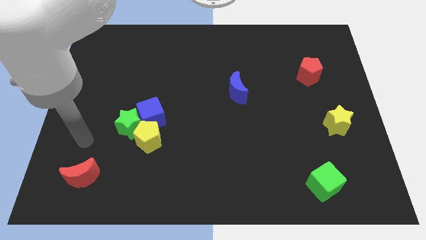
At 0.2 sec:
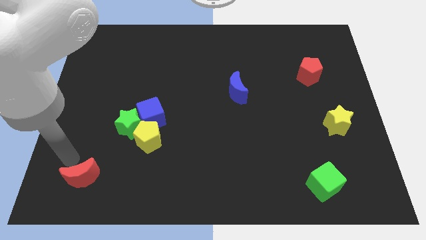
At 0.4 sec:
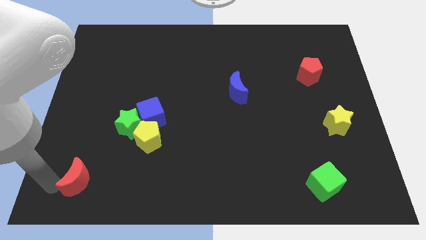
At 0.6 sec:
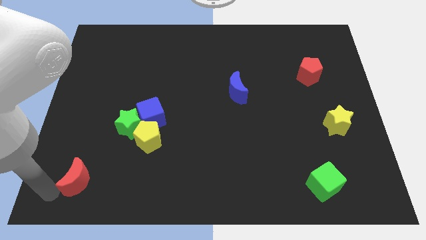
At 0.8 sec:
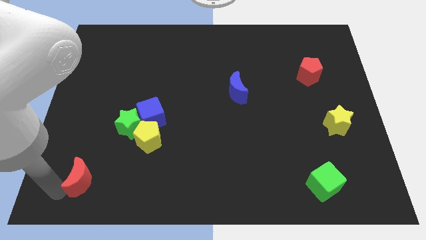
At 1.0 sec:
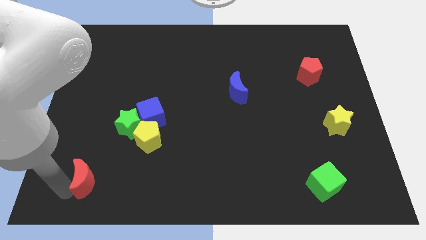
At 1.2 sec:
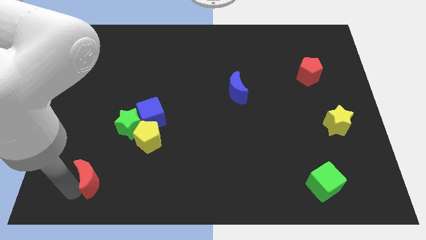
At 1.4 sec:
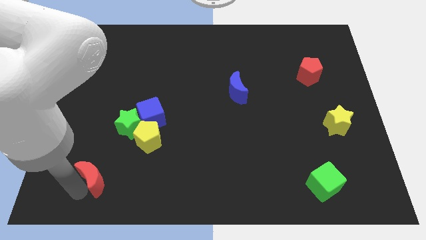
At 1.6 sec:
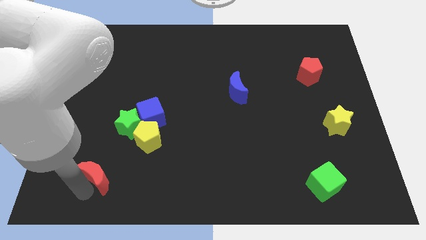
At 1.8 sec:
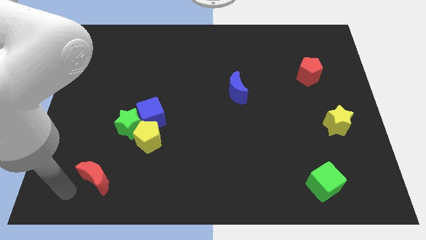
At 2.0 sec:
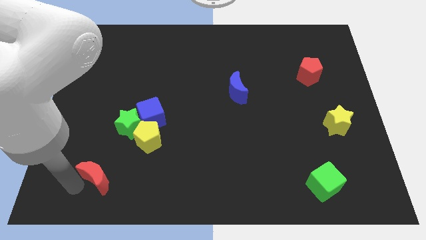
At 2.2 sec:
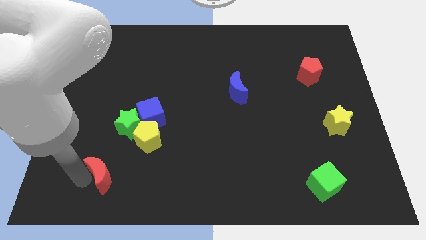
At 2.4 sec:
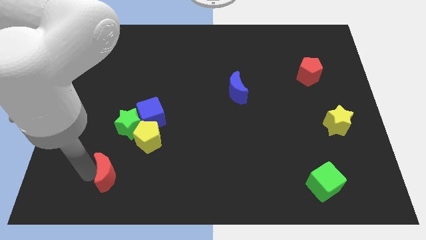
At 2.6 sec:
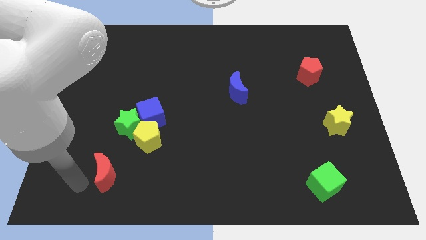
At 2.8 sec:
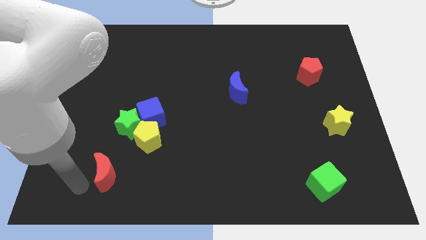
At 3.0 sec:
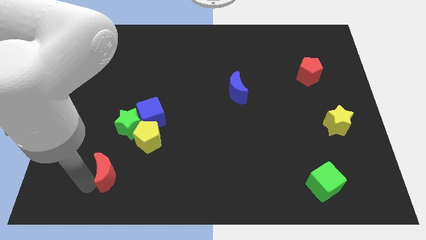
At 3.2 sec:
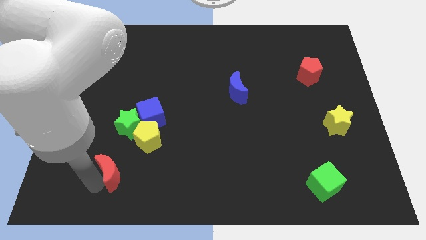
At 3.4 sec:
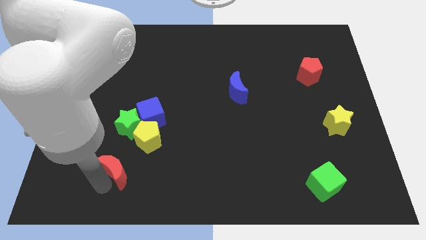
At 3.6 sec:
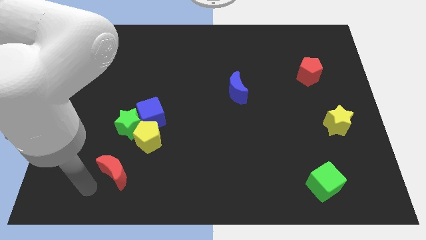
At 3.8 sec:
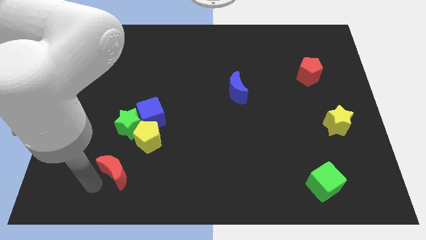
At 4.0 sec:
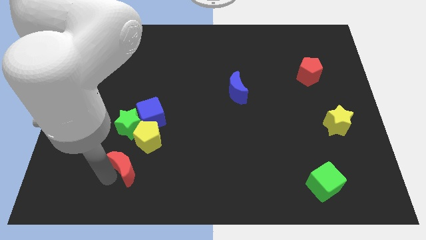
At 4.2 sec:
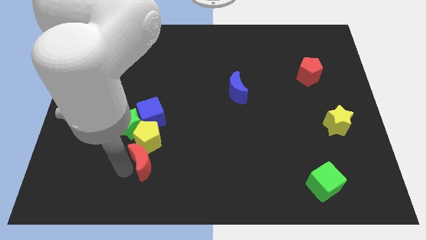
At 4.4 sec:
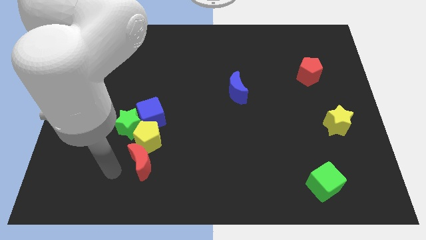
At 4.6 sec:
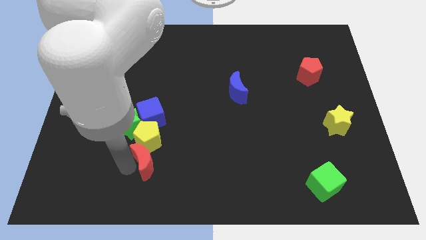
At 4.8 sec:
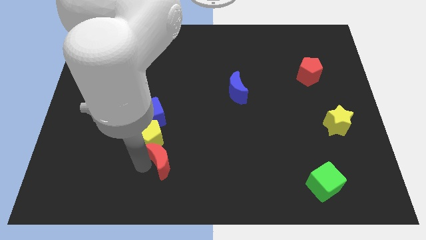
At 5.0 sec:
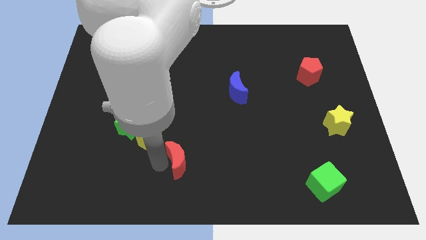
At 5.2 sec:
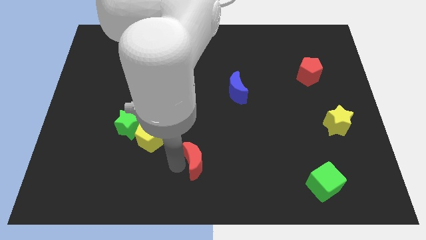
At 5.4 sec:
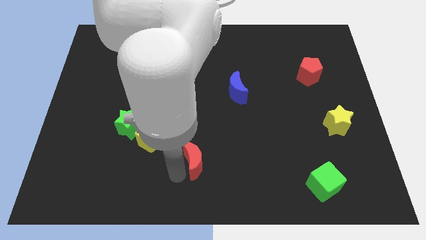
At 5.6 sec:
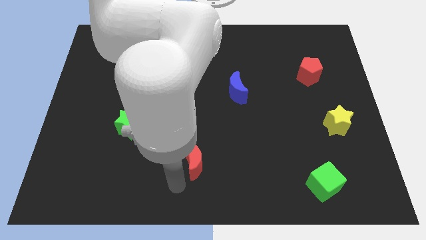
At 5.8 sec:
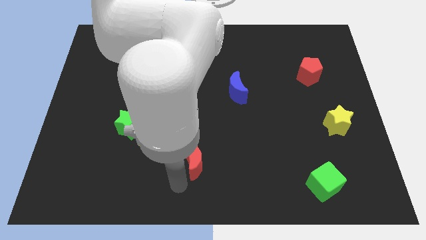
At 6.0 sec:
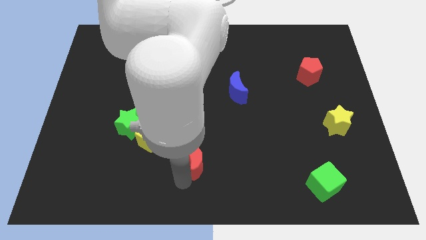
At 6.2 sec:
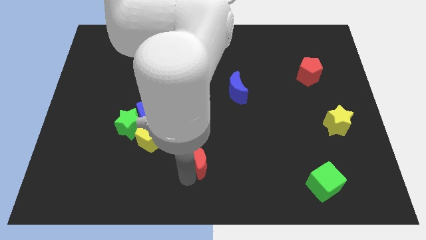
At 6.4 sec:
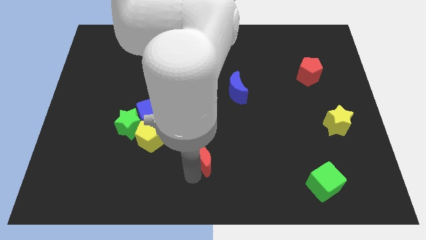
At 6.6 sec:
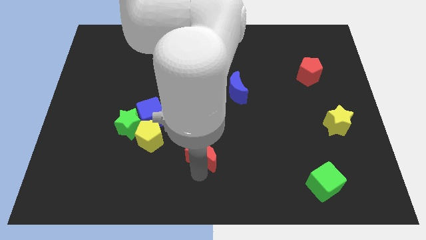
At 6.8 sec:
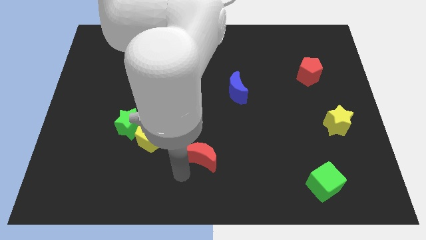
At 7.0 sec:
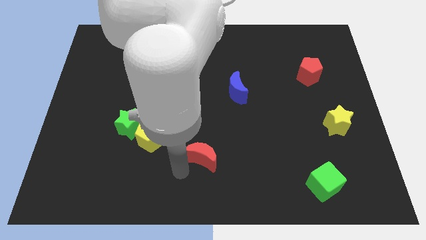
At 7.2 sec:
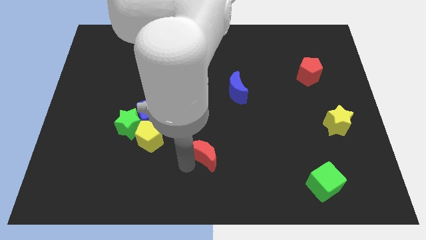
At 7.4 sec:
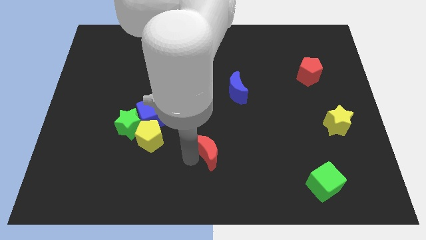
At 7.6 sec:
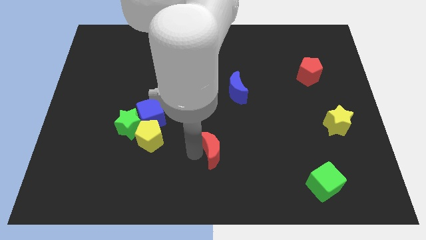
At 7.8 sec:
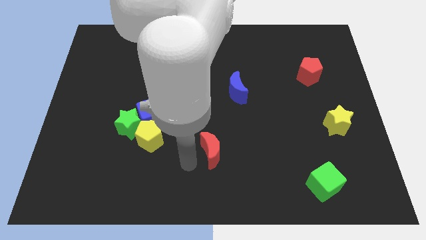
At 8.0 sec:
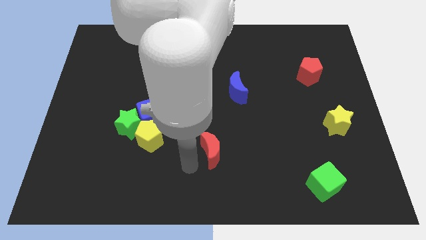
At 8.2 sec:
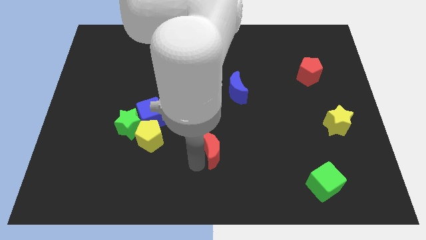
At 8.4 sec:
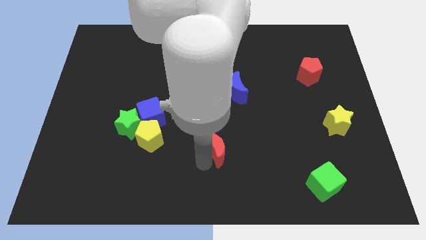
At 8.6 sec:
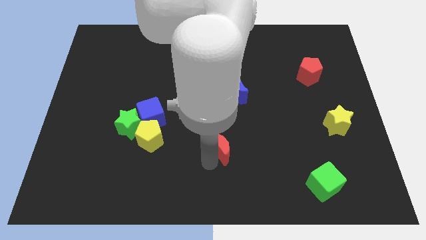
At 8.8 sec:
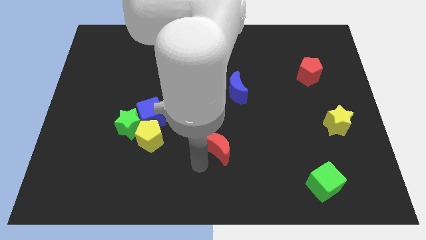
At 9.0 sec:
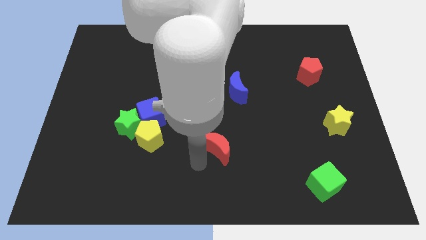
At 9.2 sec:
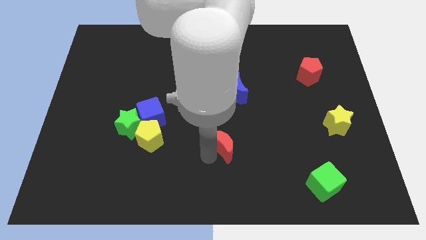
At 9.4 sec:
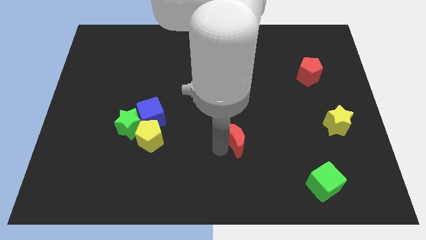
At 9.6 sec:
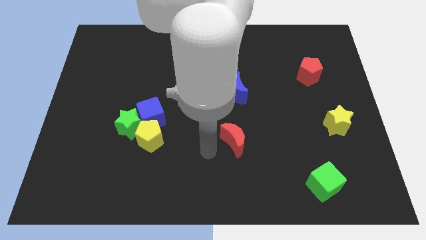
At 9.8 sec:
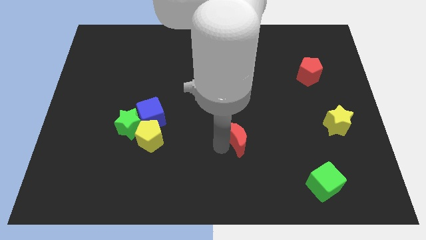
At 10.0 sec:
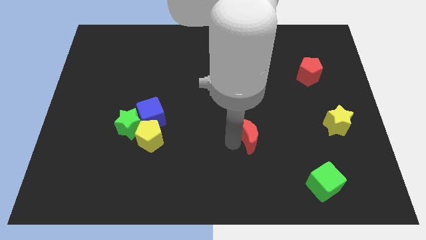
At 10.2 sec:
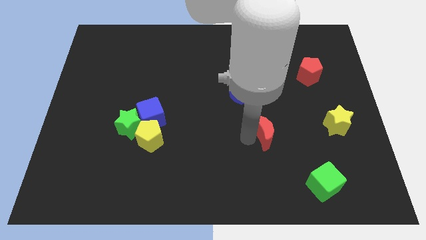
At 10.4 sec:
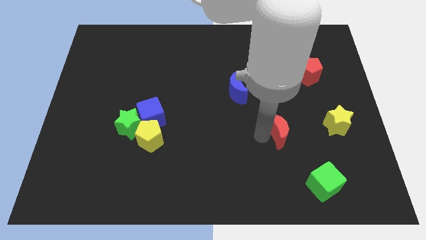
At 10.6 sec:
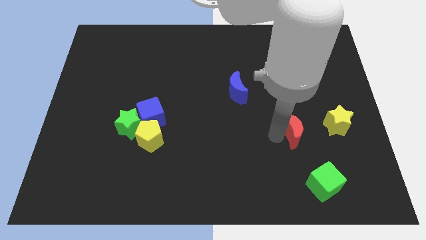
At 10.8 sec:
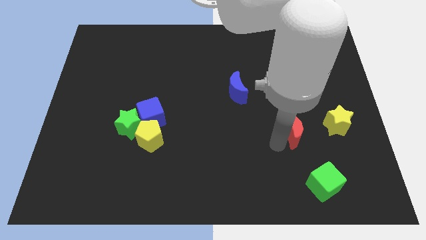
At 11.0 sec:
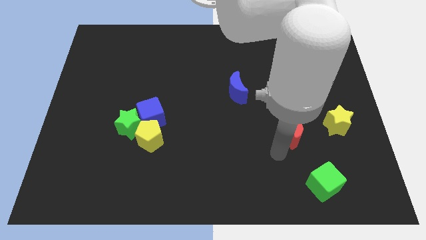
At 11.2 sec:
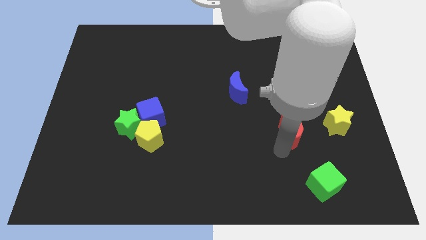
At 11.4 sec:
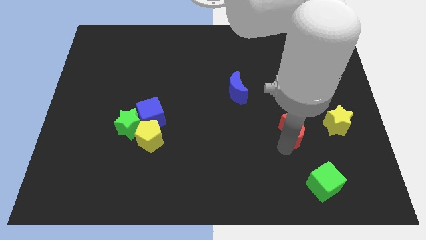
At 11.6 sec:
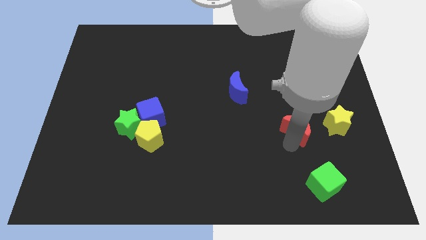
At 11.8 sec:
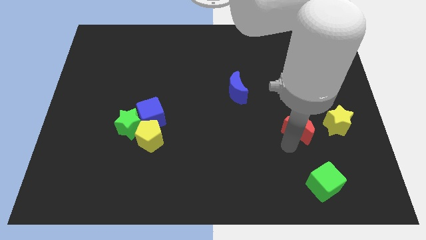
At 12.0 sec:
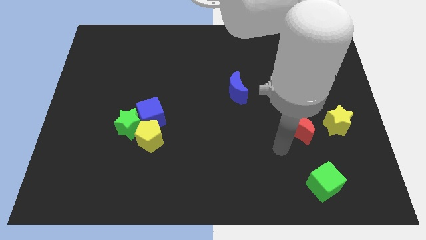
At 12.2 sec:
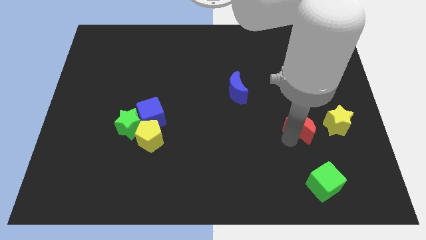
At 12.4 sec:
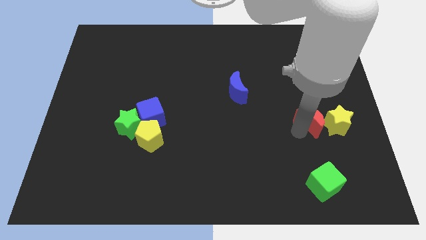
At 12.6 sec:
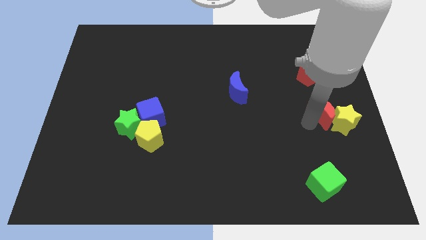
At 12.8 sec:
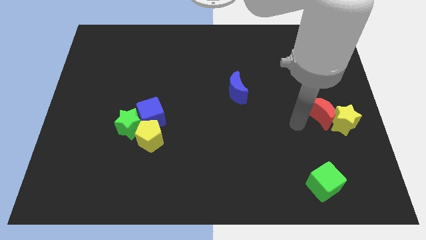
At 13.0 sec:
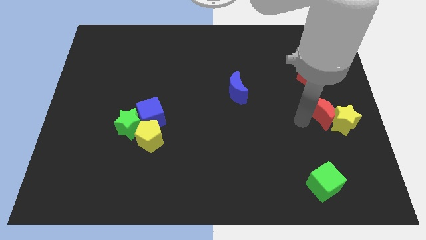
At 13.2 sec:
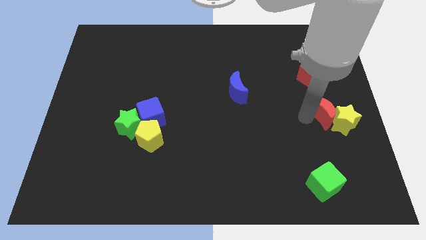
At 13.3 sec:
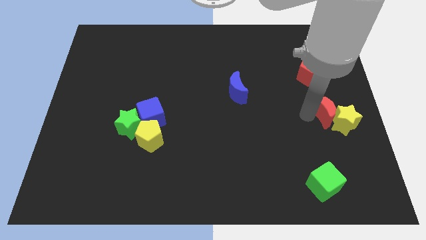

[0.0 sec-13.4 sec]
push the red moon to the right side

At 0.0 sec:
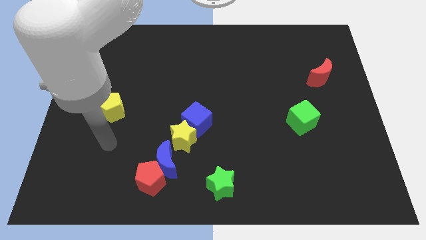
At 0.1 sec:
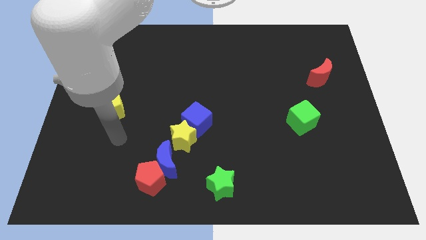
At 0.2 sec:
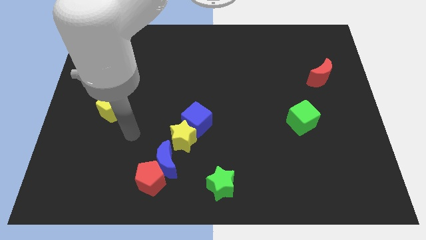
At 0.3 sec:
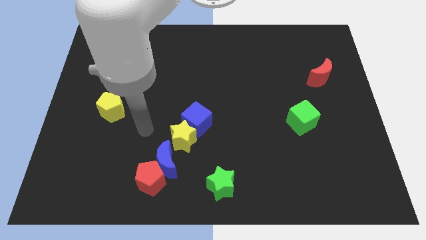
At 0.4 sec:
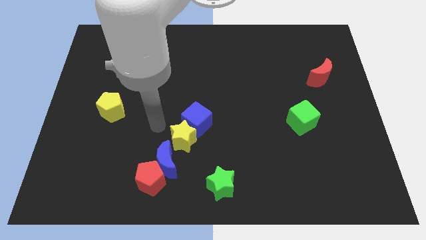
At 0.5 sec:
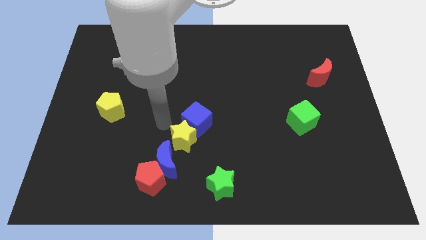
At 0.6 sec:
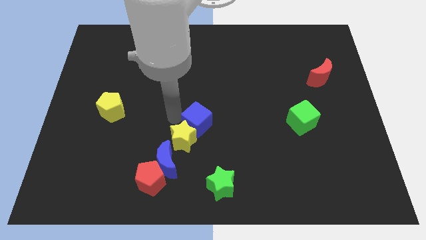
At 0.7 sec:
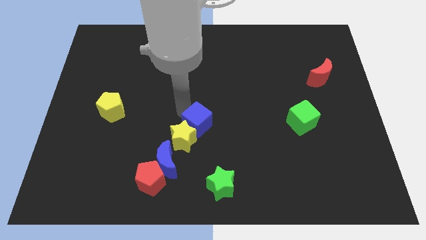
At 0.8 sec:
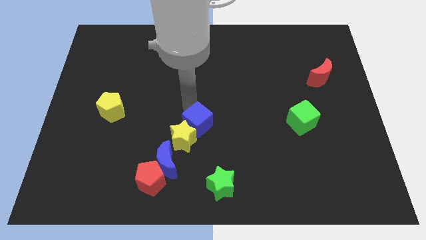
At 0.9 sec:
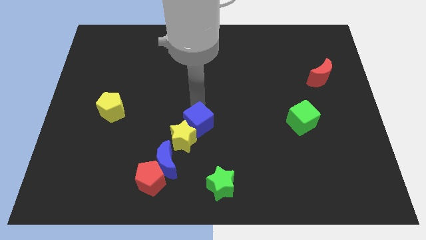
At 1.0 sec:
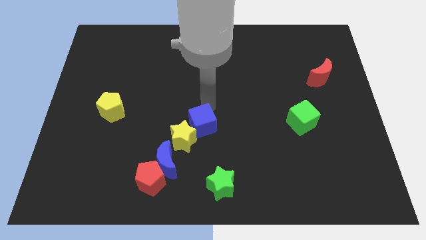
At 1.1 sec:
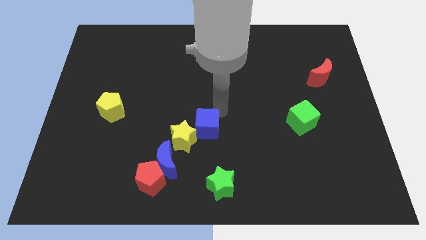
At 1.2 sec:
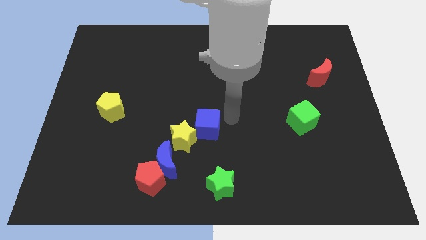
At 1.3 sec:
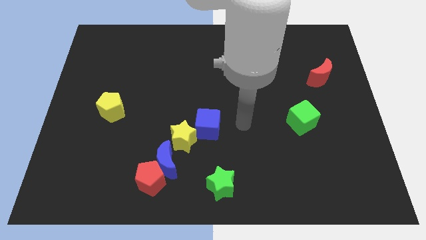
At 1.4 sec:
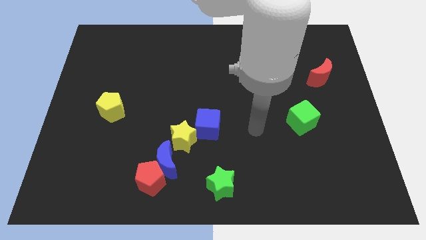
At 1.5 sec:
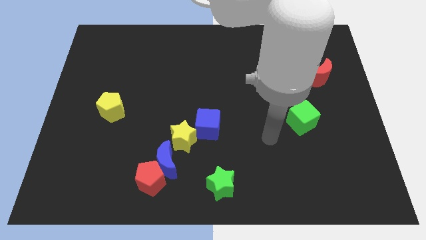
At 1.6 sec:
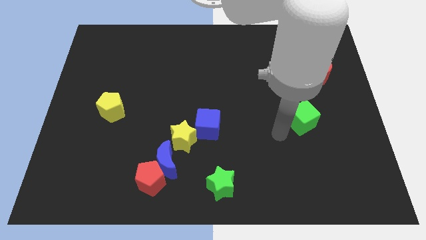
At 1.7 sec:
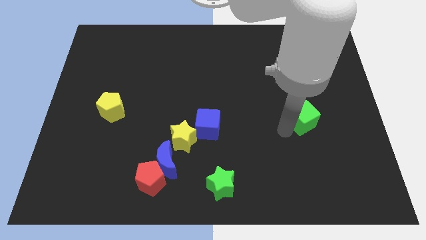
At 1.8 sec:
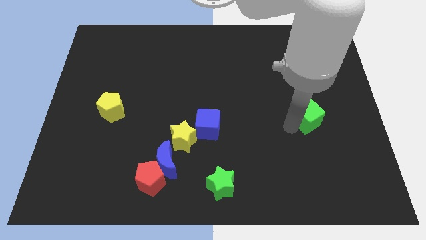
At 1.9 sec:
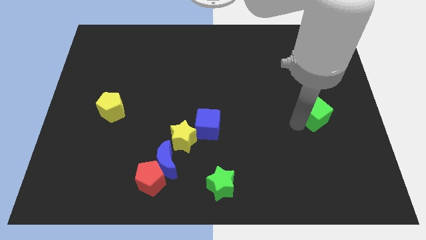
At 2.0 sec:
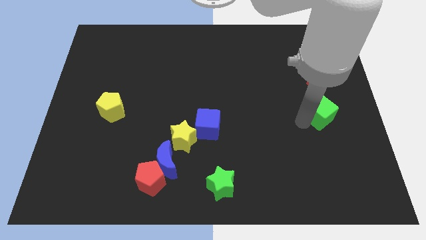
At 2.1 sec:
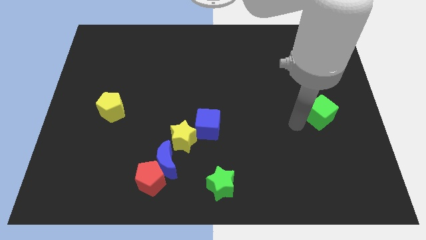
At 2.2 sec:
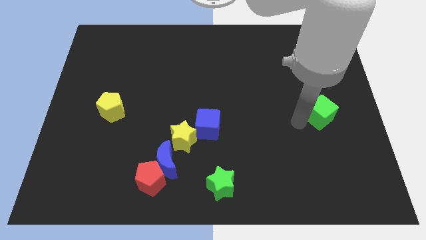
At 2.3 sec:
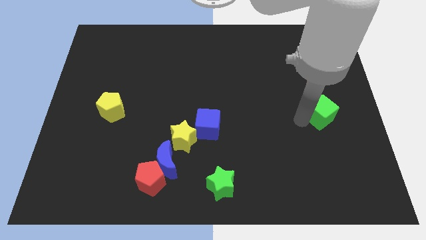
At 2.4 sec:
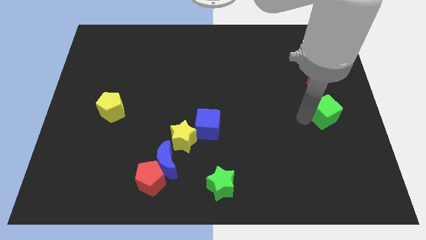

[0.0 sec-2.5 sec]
move the green cube to the right side
